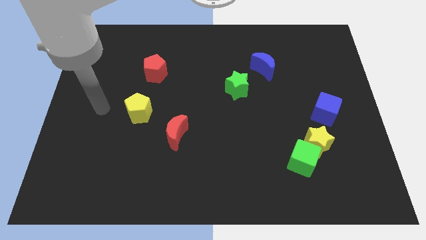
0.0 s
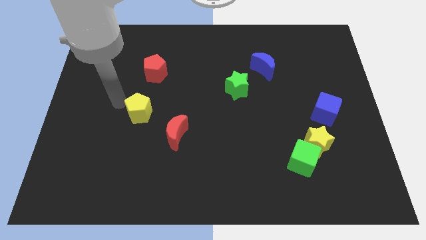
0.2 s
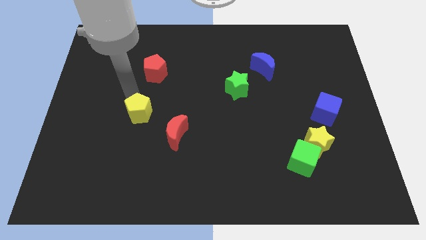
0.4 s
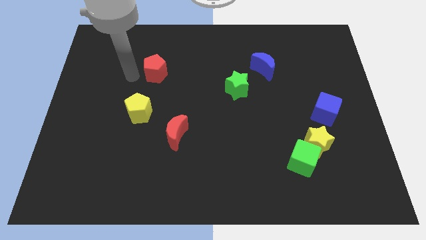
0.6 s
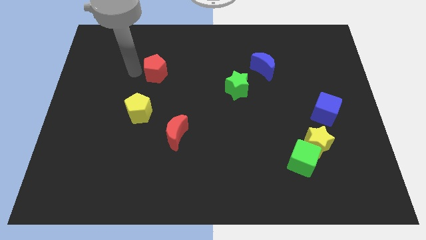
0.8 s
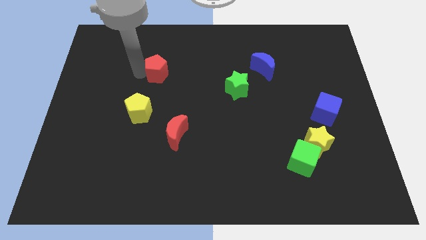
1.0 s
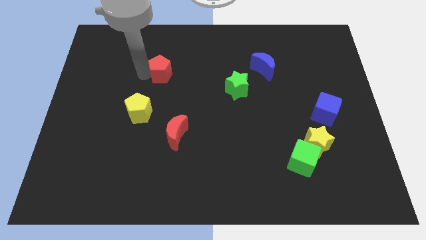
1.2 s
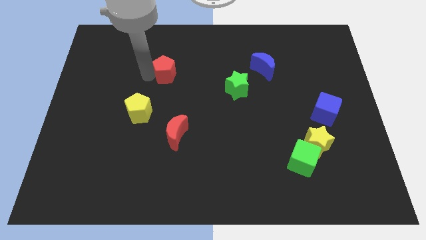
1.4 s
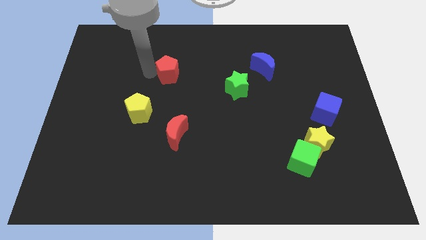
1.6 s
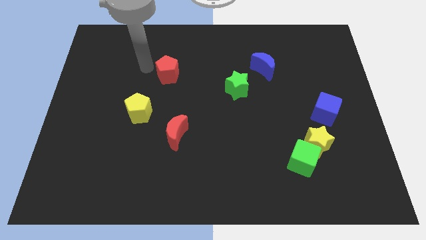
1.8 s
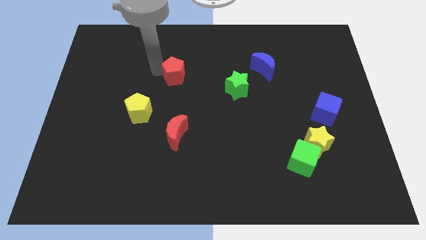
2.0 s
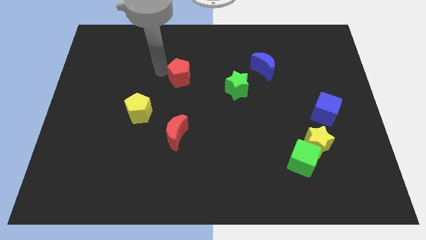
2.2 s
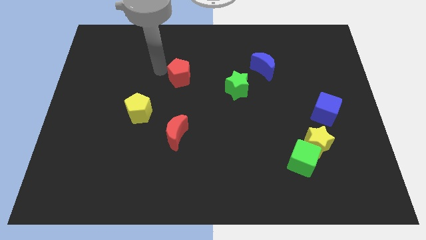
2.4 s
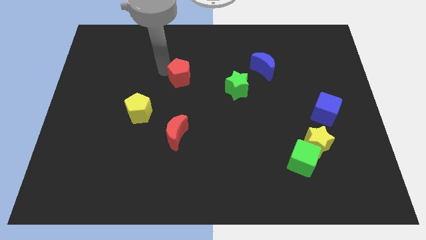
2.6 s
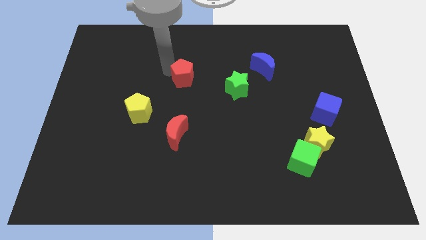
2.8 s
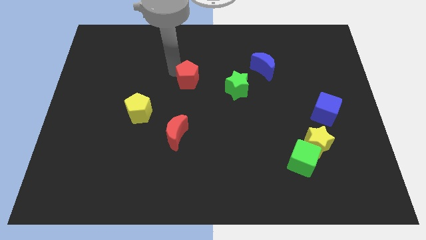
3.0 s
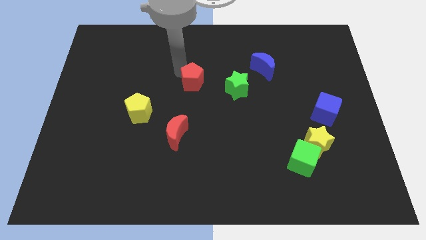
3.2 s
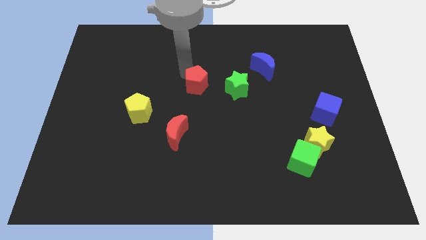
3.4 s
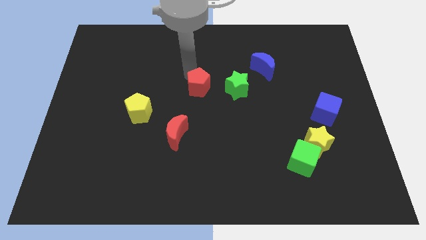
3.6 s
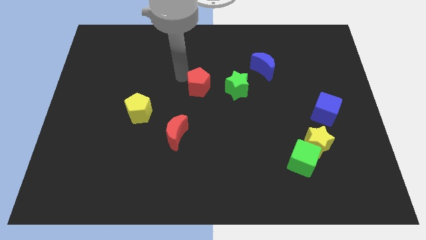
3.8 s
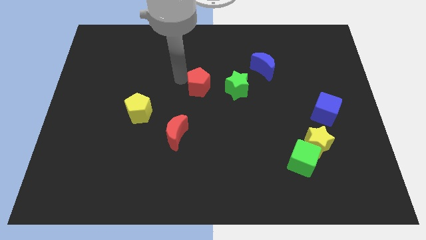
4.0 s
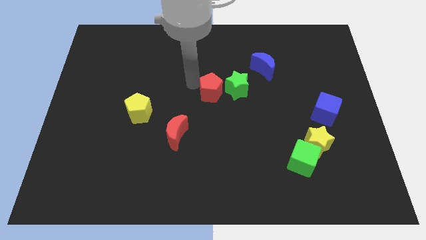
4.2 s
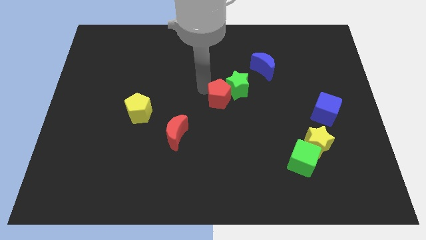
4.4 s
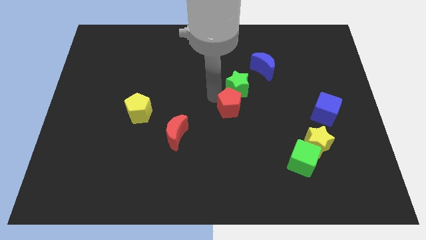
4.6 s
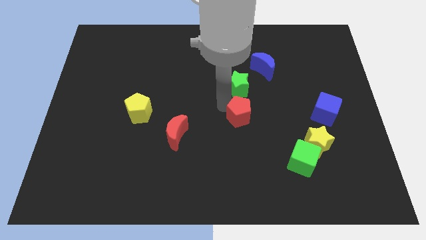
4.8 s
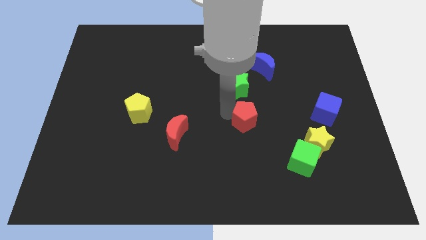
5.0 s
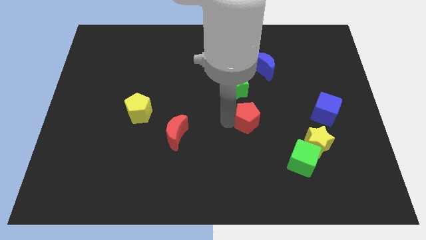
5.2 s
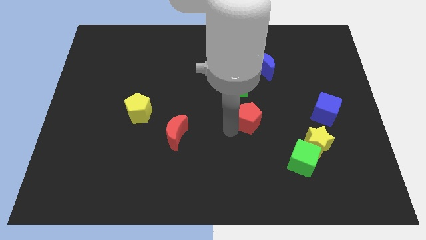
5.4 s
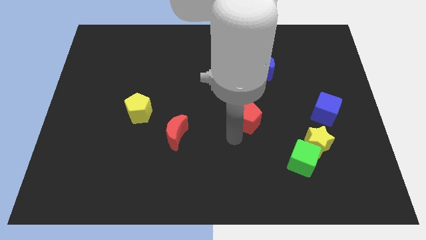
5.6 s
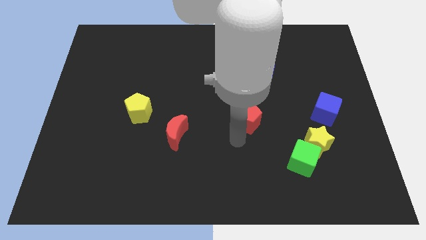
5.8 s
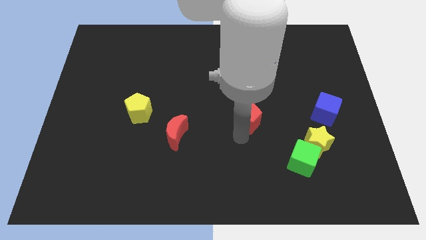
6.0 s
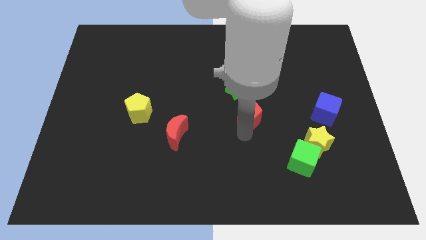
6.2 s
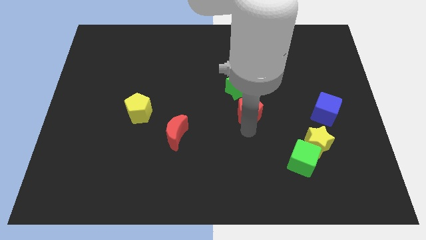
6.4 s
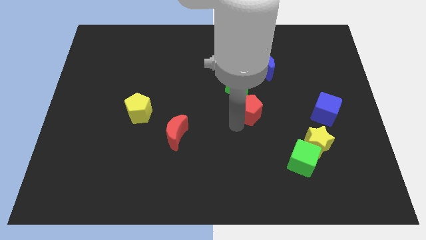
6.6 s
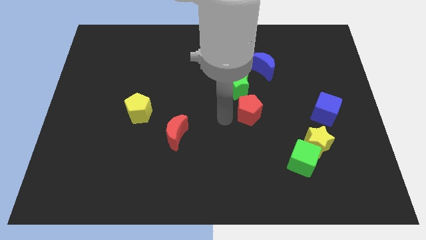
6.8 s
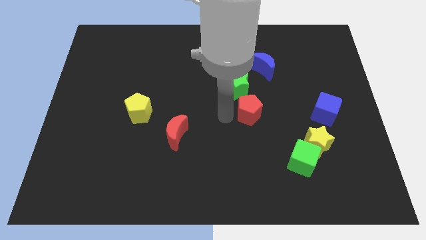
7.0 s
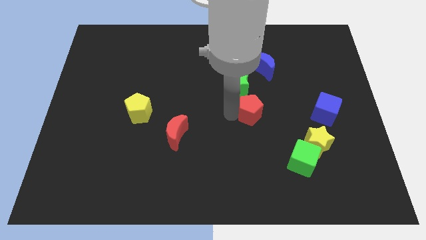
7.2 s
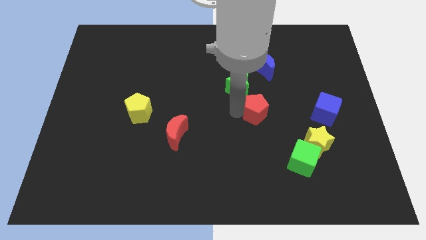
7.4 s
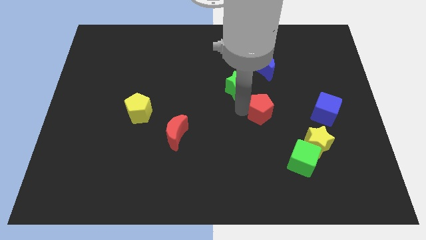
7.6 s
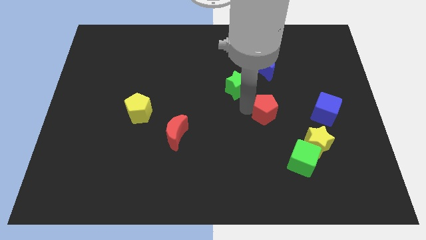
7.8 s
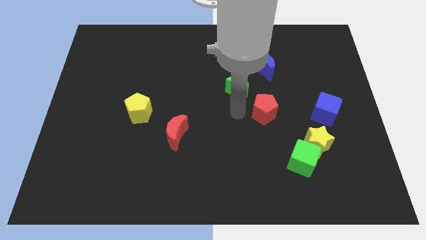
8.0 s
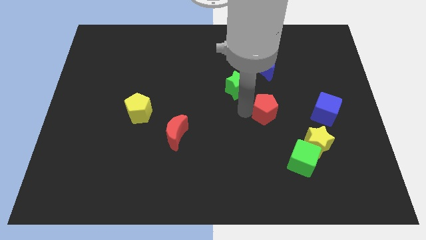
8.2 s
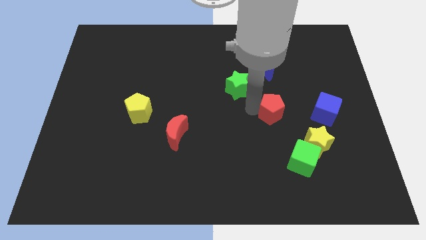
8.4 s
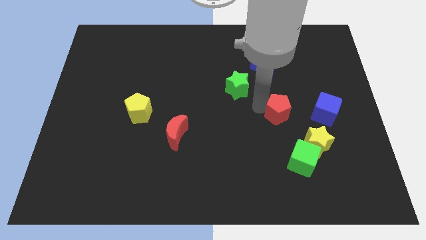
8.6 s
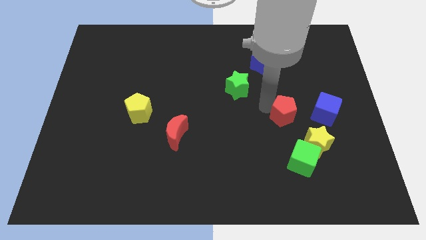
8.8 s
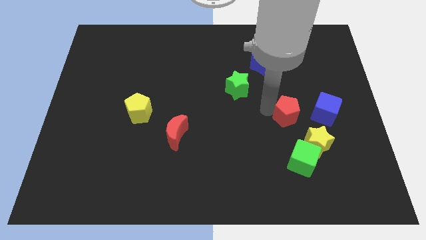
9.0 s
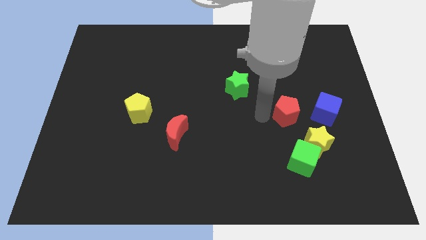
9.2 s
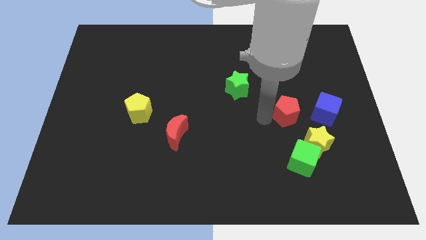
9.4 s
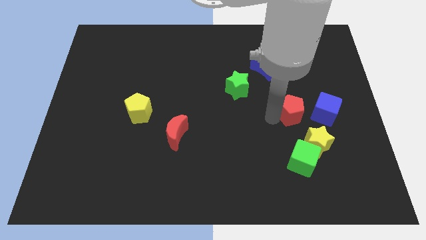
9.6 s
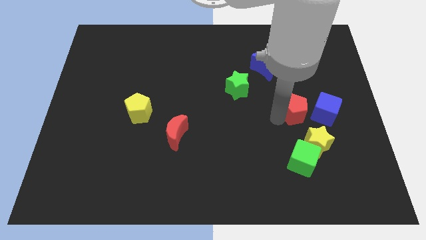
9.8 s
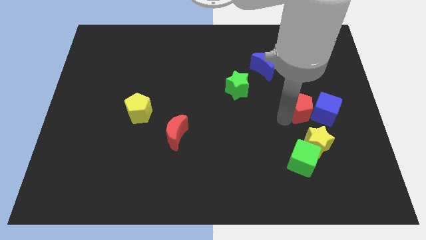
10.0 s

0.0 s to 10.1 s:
slide the red pentagon to the blue cube

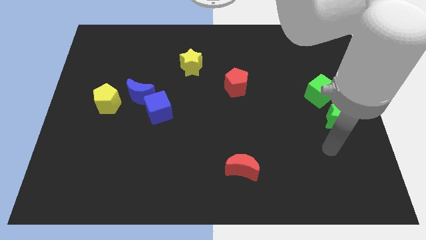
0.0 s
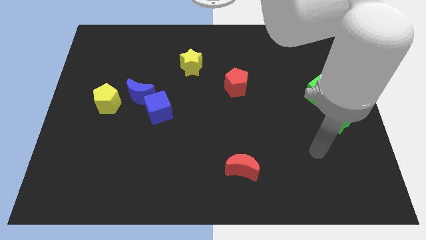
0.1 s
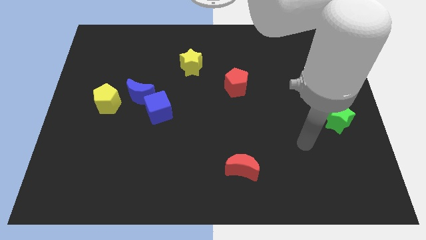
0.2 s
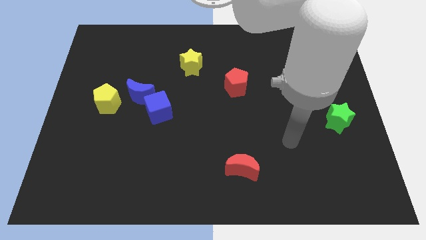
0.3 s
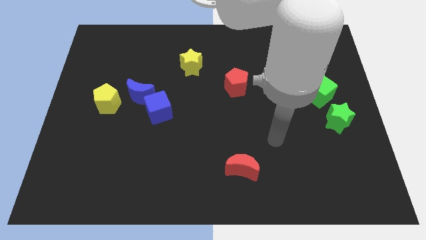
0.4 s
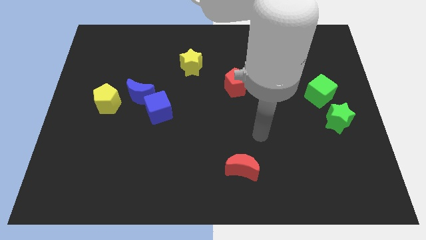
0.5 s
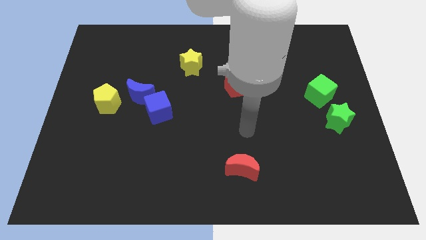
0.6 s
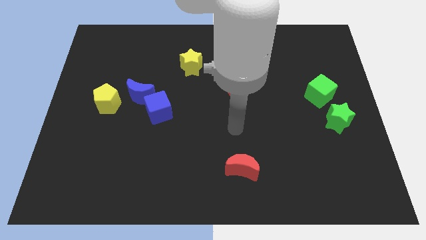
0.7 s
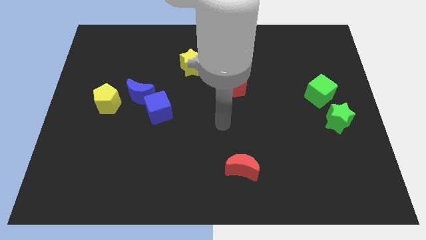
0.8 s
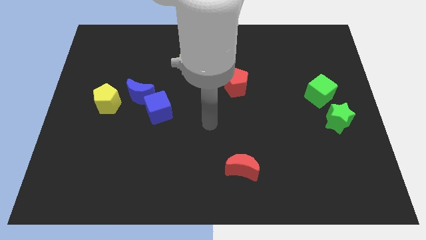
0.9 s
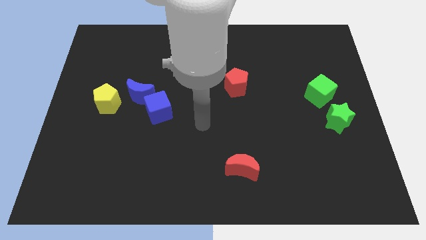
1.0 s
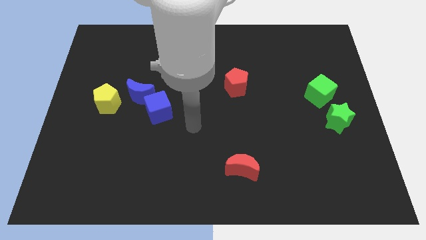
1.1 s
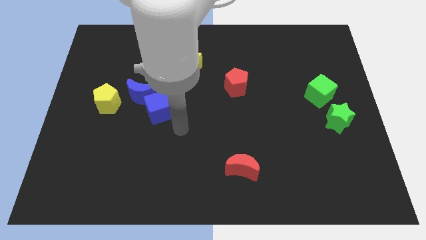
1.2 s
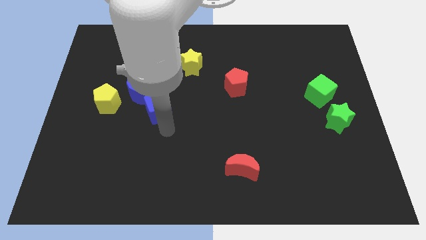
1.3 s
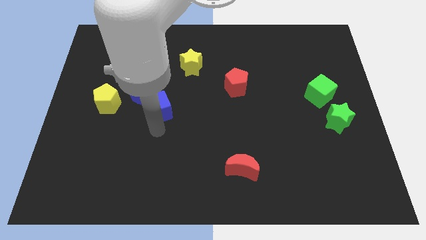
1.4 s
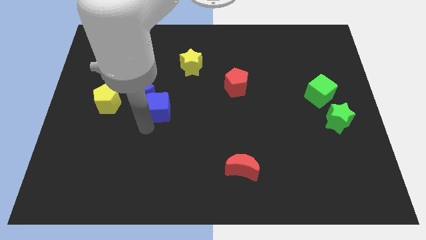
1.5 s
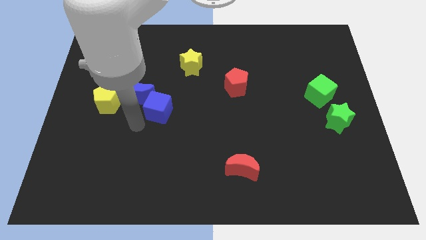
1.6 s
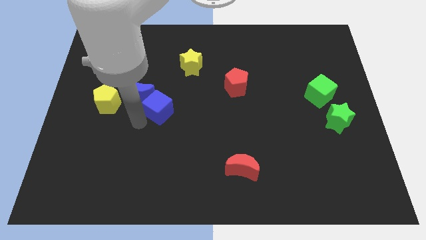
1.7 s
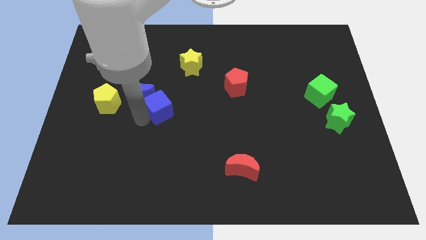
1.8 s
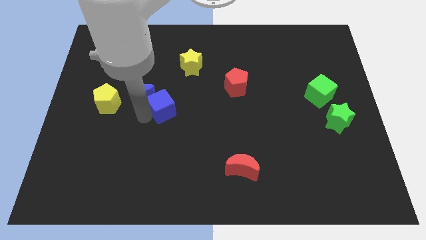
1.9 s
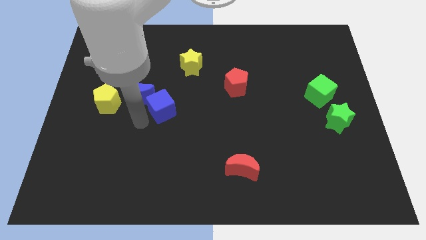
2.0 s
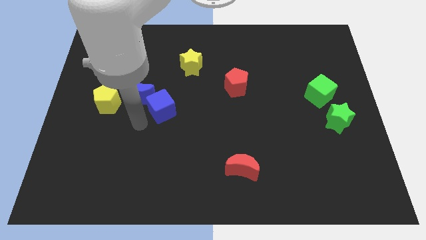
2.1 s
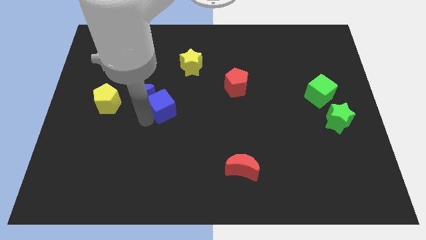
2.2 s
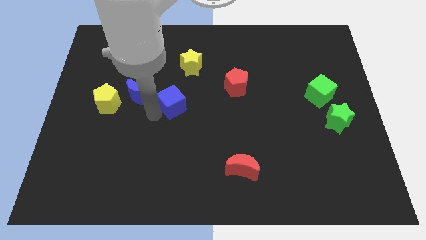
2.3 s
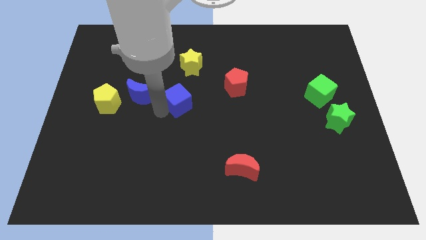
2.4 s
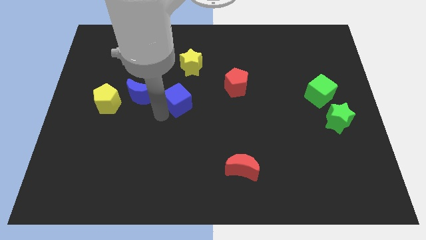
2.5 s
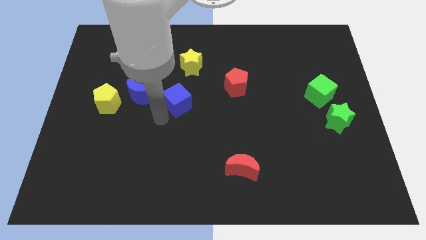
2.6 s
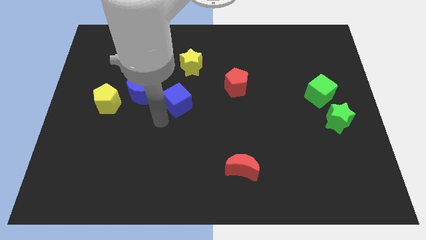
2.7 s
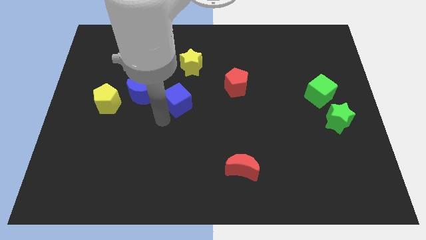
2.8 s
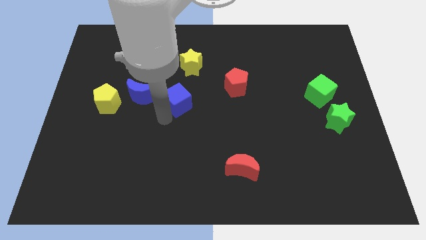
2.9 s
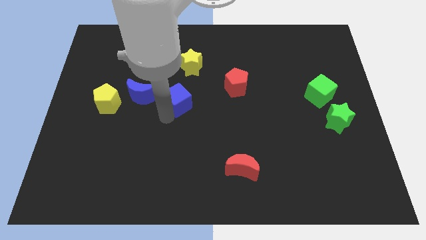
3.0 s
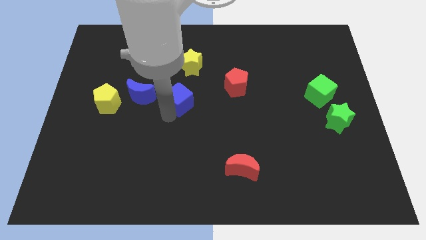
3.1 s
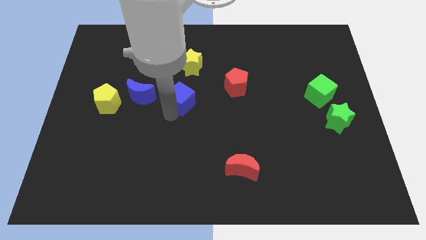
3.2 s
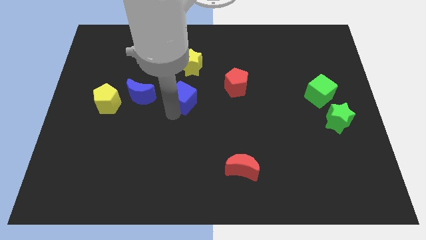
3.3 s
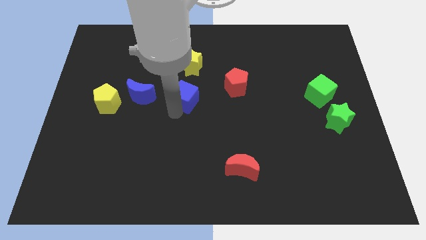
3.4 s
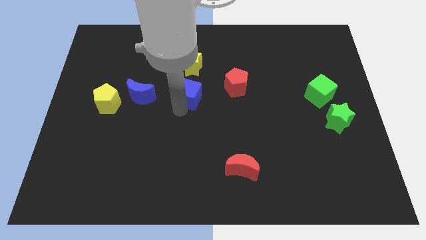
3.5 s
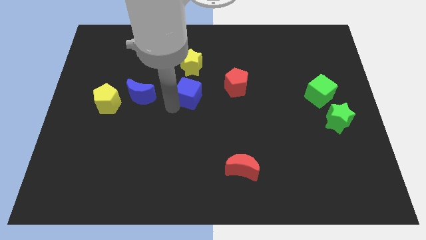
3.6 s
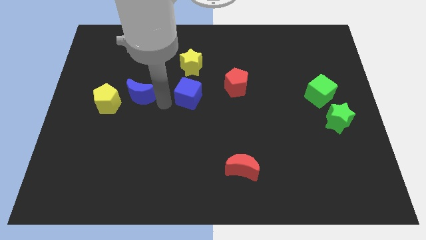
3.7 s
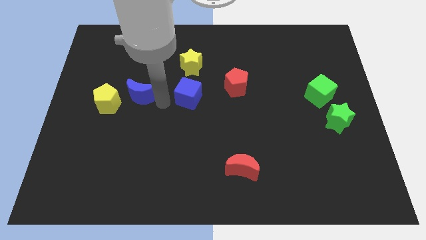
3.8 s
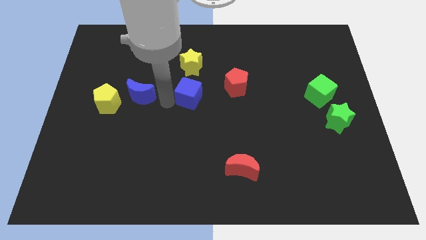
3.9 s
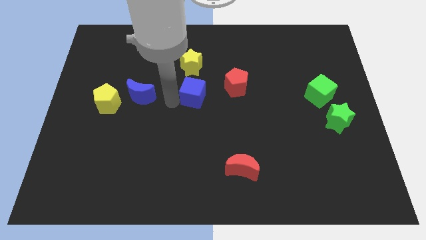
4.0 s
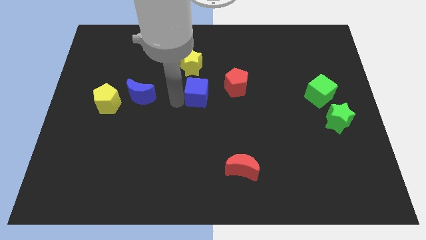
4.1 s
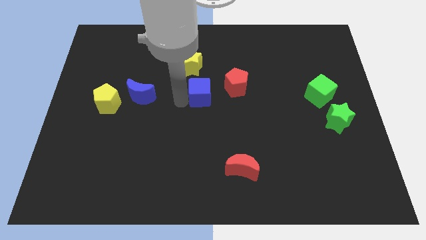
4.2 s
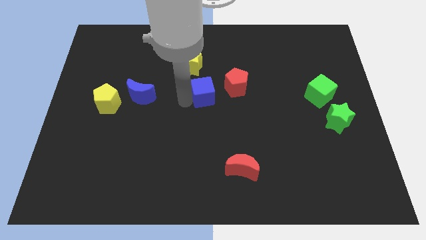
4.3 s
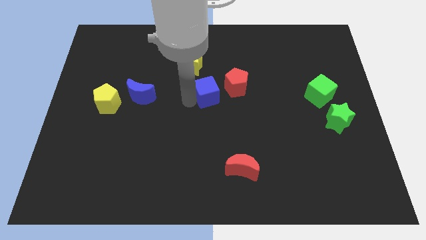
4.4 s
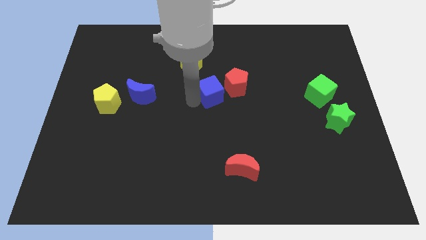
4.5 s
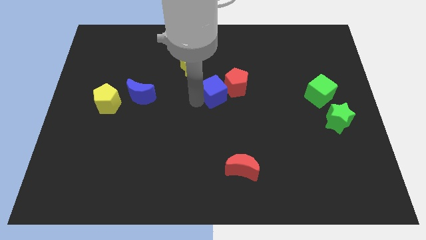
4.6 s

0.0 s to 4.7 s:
push the blue cube next to the red pentagon
